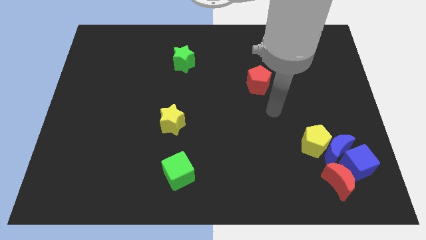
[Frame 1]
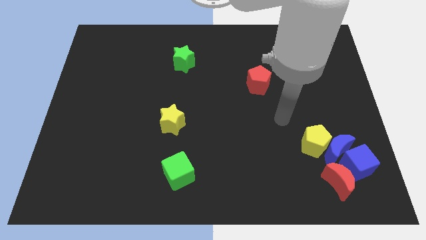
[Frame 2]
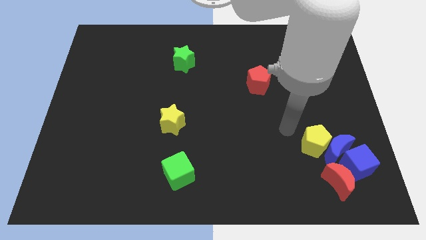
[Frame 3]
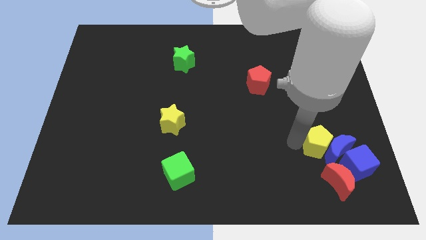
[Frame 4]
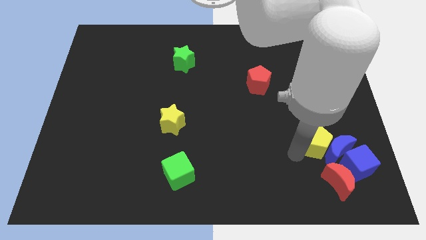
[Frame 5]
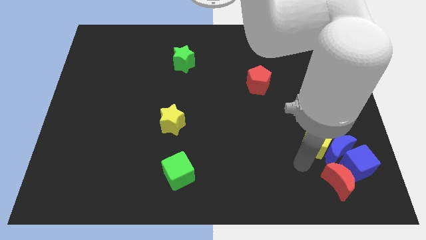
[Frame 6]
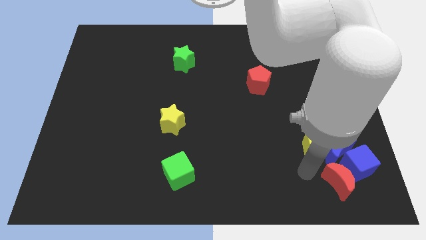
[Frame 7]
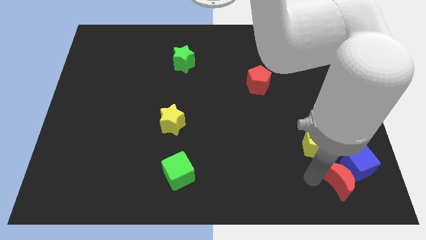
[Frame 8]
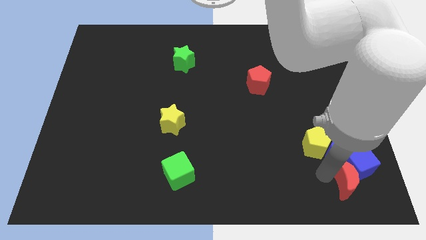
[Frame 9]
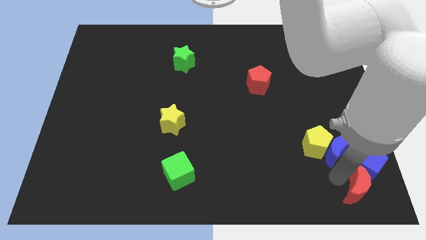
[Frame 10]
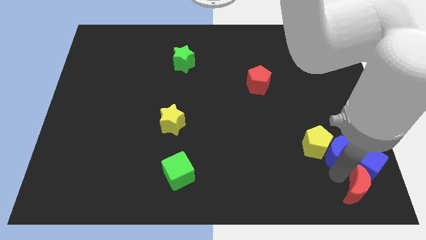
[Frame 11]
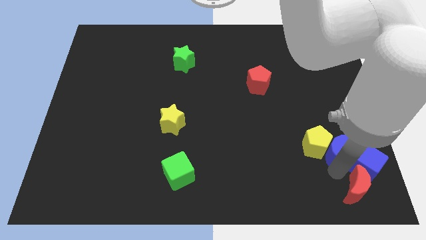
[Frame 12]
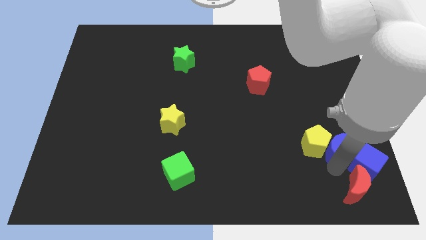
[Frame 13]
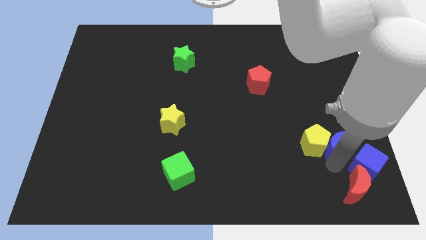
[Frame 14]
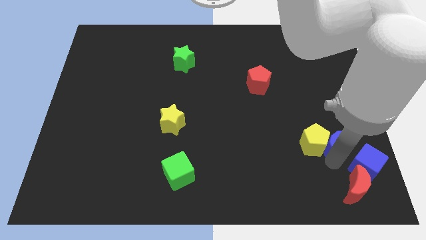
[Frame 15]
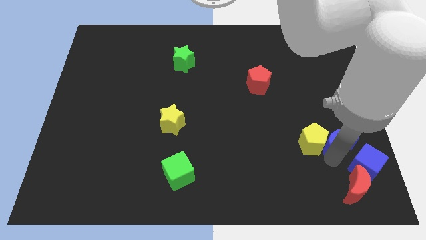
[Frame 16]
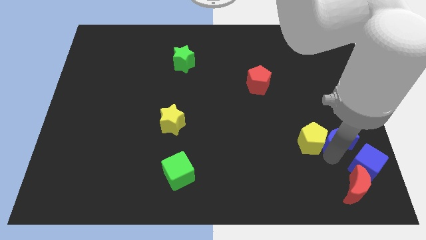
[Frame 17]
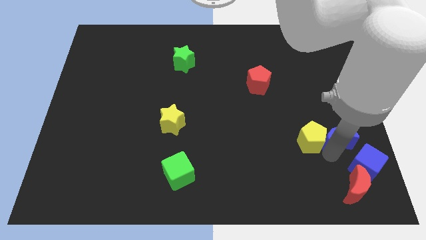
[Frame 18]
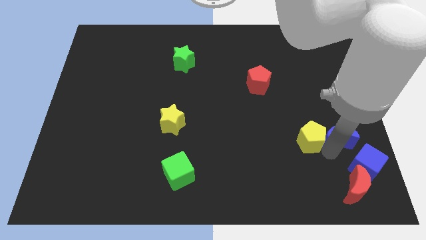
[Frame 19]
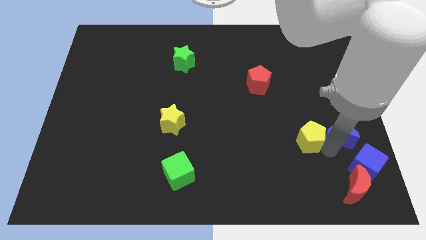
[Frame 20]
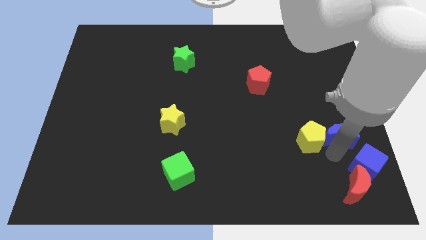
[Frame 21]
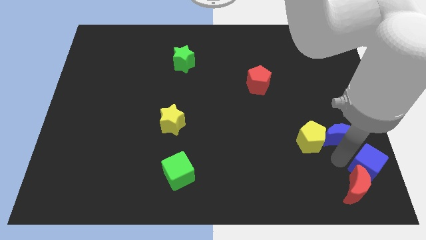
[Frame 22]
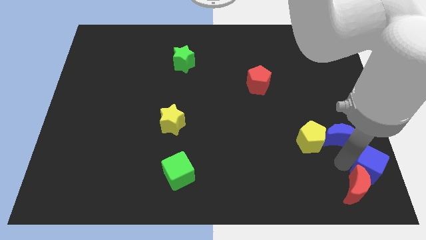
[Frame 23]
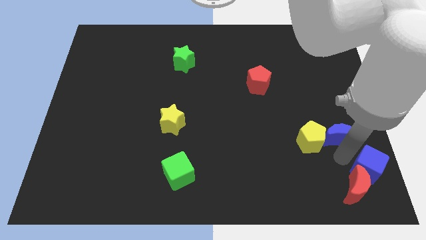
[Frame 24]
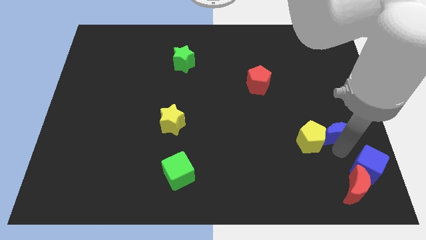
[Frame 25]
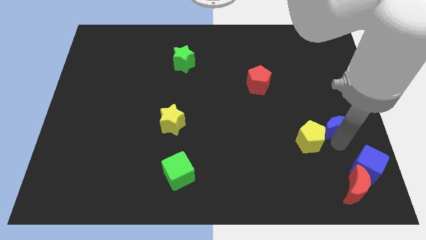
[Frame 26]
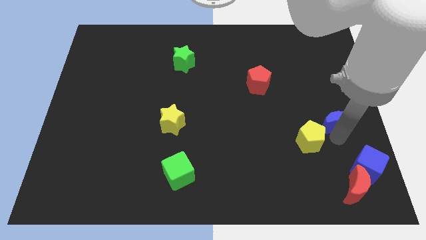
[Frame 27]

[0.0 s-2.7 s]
move the blue moon away from the group of blocks

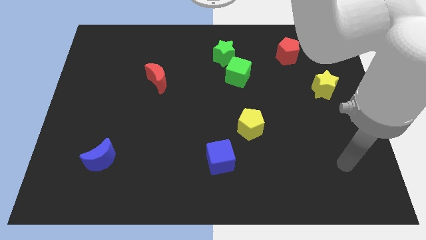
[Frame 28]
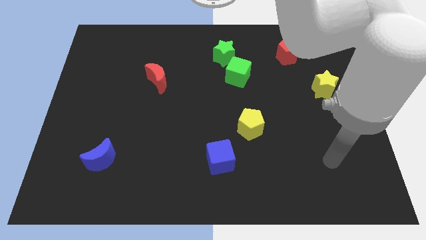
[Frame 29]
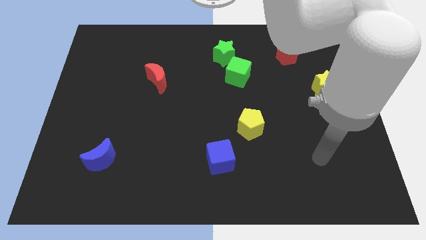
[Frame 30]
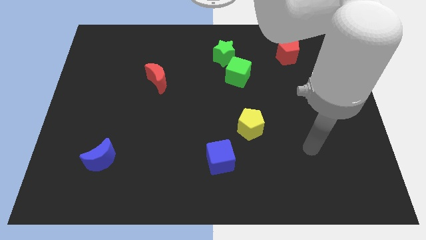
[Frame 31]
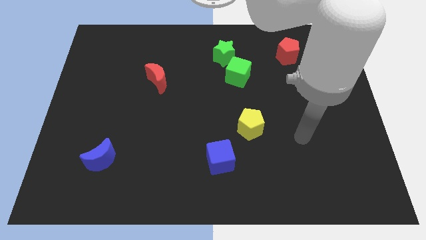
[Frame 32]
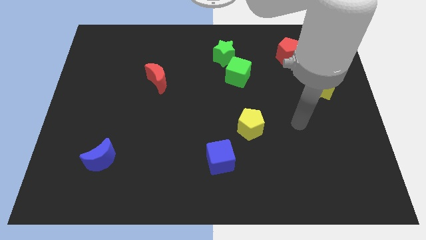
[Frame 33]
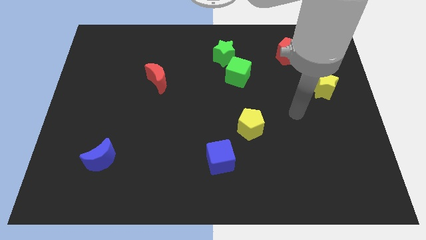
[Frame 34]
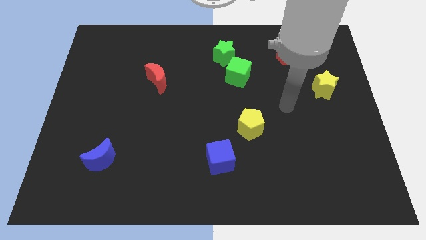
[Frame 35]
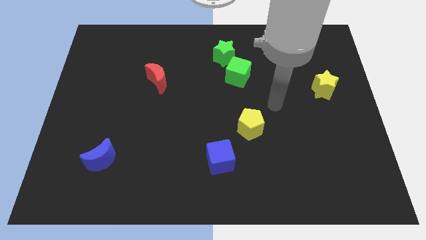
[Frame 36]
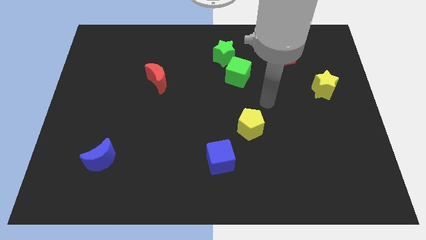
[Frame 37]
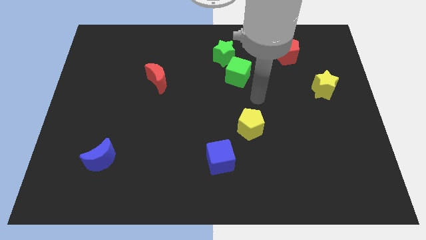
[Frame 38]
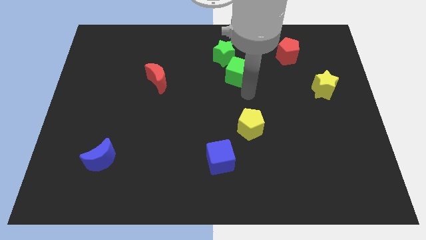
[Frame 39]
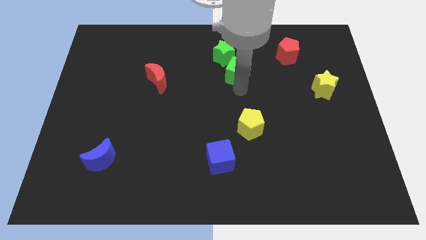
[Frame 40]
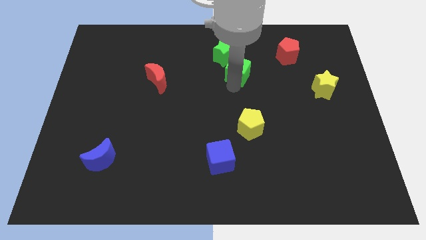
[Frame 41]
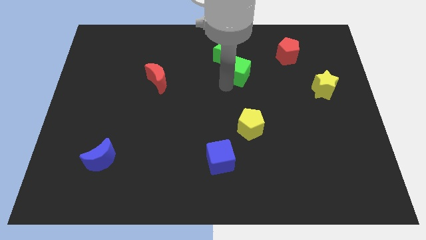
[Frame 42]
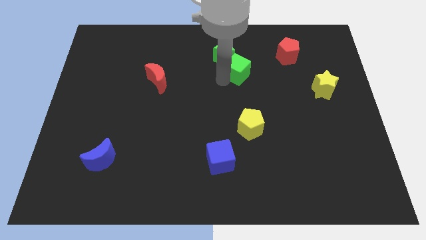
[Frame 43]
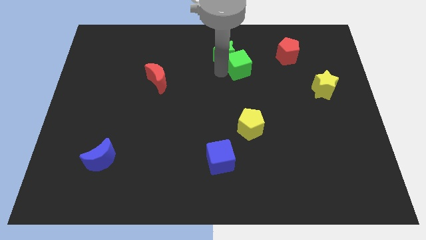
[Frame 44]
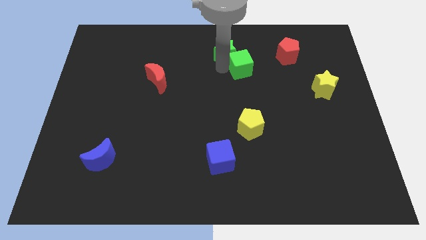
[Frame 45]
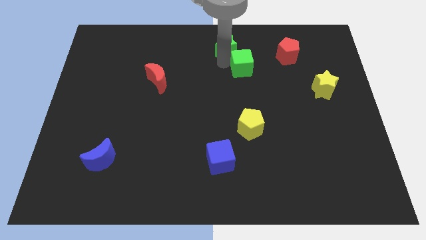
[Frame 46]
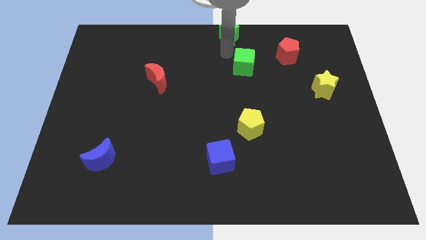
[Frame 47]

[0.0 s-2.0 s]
pull the green cube apart from the green star

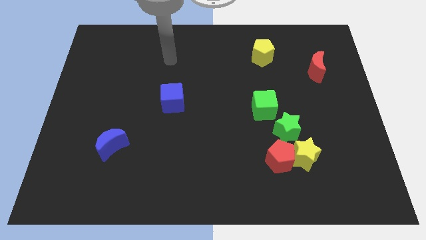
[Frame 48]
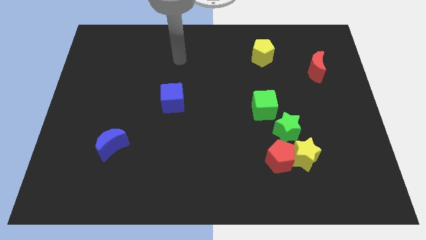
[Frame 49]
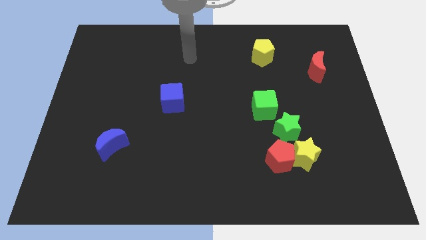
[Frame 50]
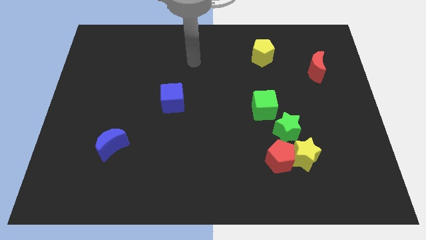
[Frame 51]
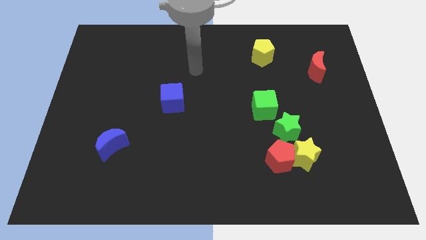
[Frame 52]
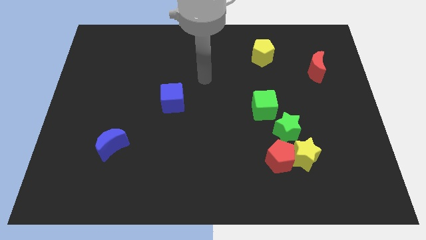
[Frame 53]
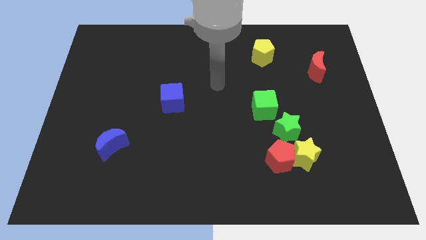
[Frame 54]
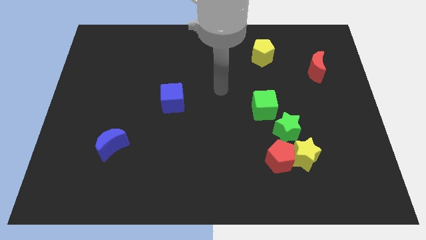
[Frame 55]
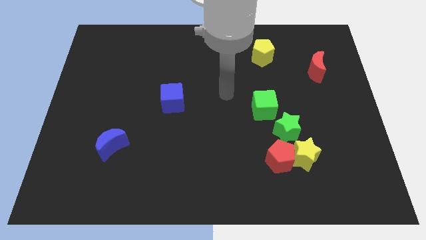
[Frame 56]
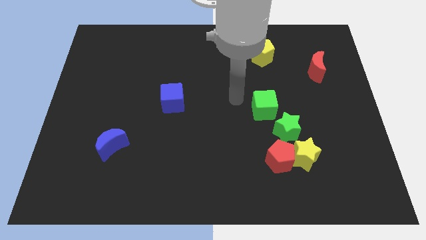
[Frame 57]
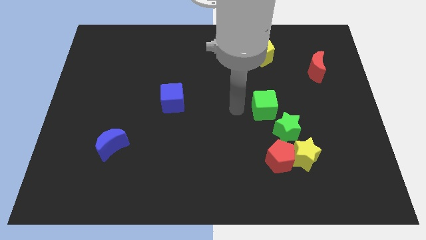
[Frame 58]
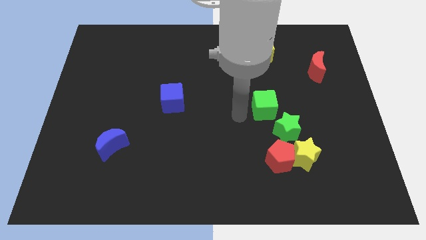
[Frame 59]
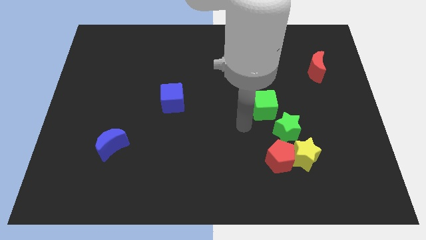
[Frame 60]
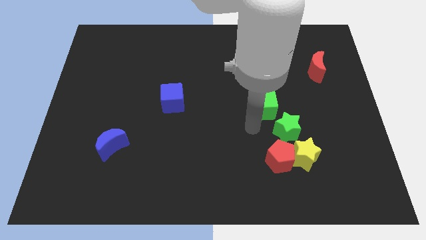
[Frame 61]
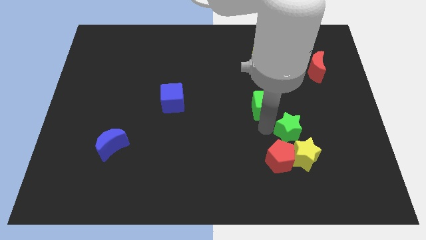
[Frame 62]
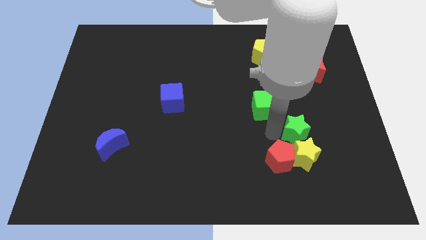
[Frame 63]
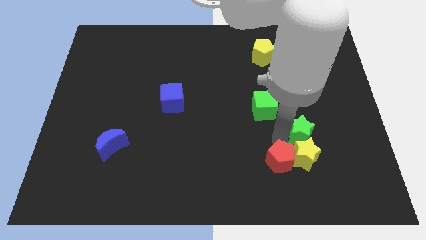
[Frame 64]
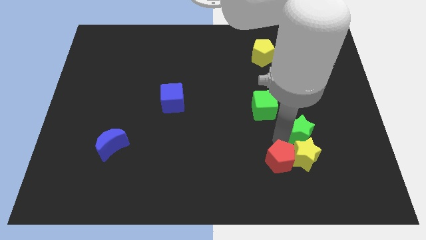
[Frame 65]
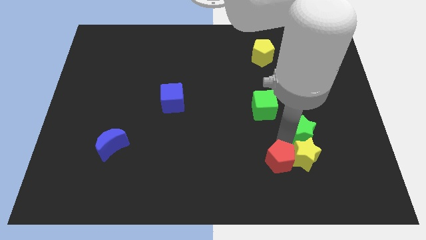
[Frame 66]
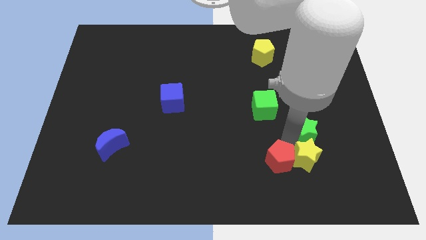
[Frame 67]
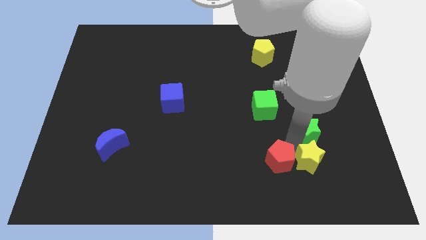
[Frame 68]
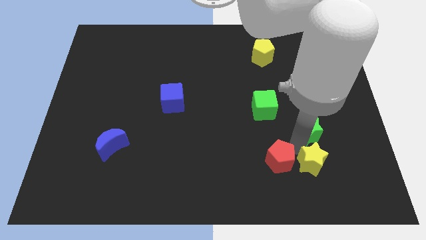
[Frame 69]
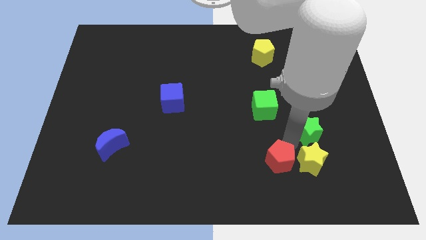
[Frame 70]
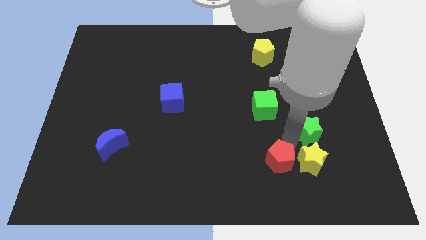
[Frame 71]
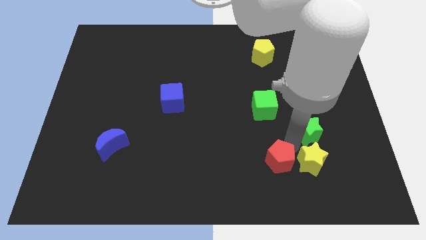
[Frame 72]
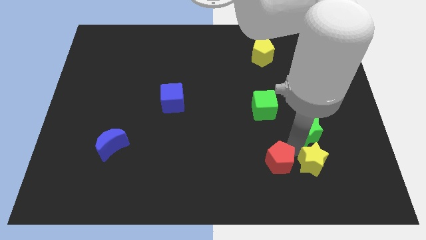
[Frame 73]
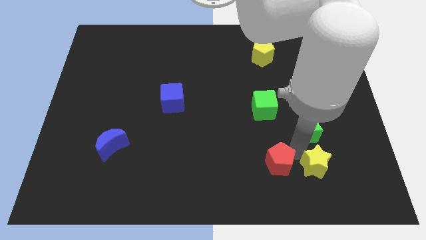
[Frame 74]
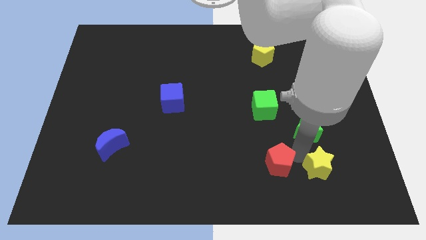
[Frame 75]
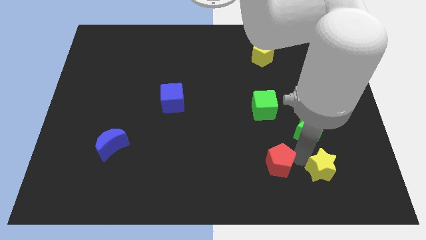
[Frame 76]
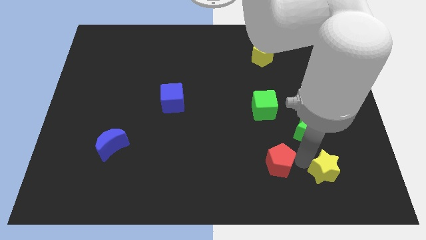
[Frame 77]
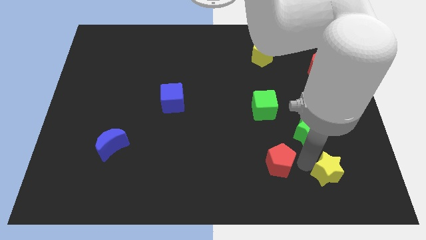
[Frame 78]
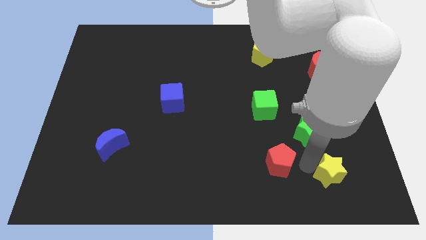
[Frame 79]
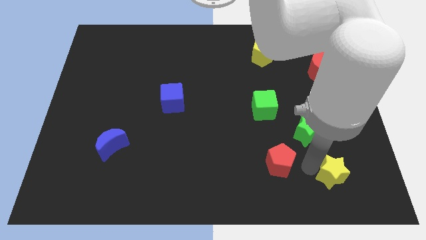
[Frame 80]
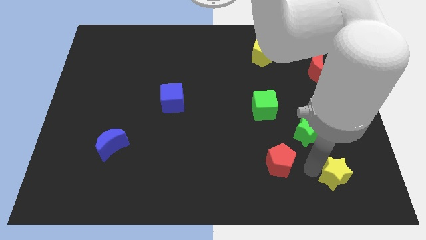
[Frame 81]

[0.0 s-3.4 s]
pull the yellow star apart from the red pentagon and green star

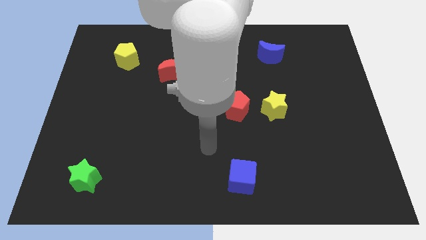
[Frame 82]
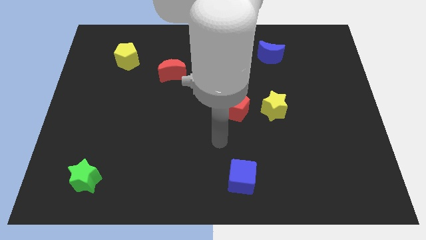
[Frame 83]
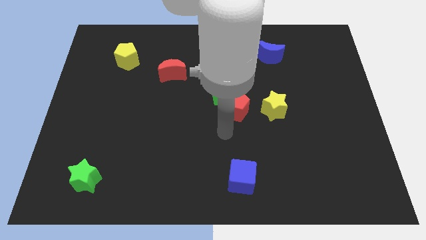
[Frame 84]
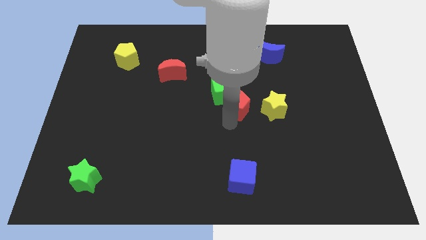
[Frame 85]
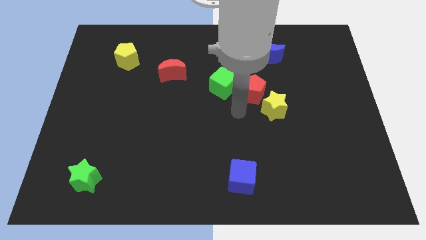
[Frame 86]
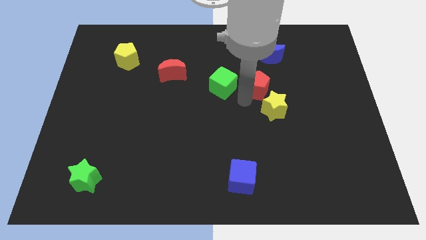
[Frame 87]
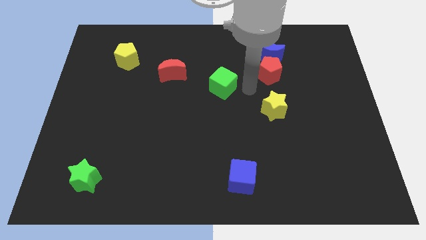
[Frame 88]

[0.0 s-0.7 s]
move the green cube away from the red pentagon

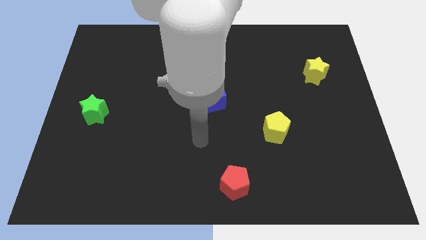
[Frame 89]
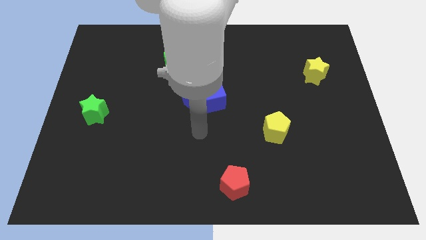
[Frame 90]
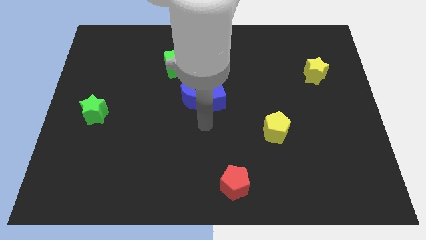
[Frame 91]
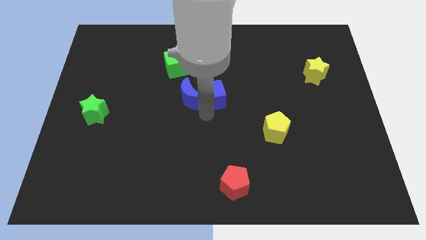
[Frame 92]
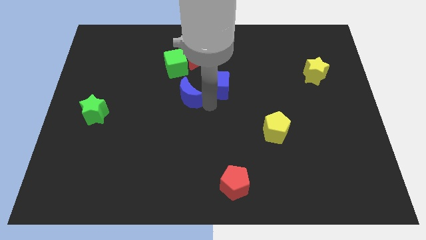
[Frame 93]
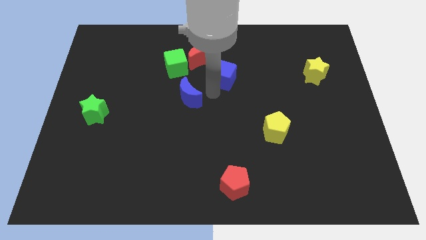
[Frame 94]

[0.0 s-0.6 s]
move the blue moon away from the blue cube
